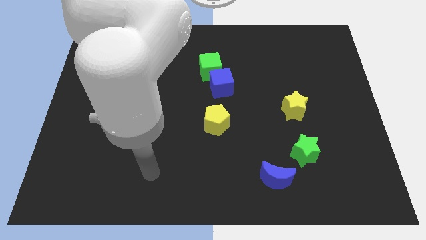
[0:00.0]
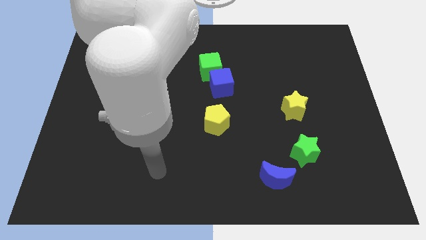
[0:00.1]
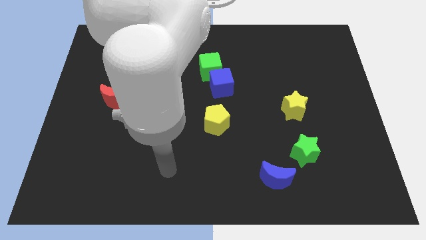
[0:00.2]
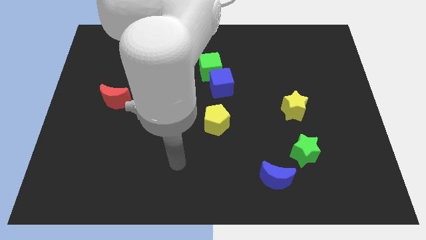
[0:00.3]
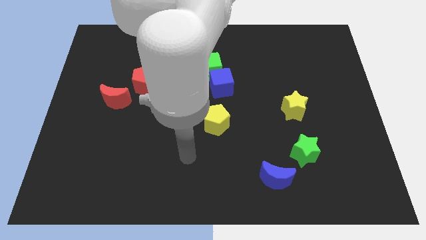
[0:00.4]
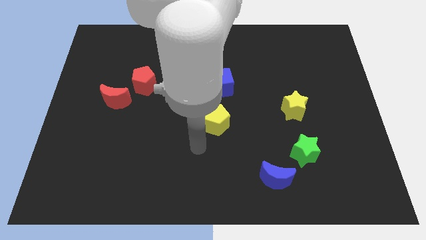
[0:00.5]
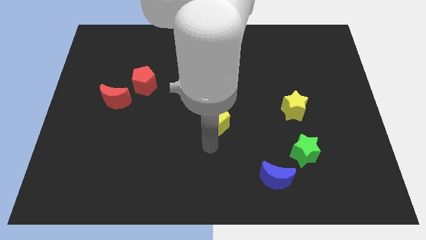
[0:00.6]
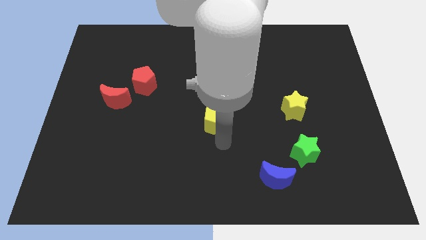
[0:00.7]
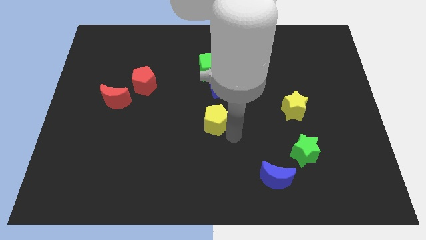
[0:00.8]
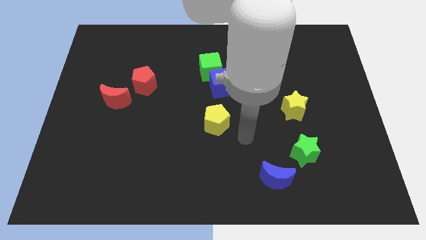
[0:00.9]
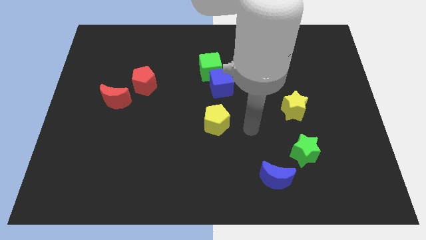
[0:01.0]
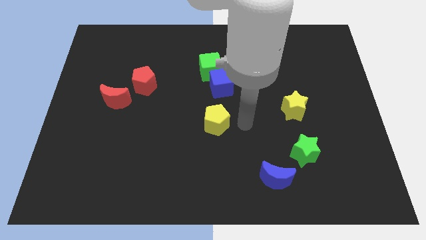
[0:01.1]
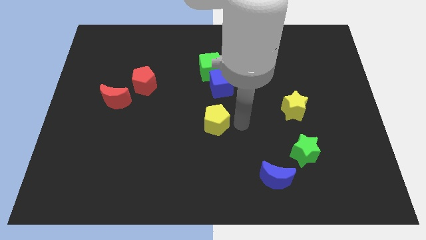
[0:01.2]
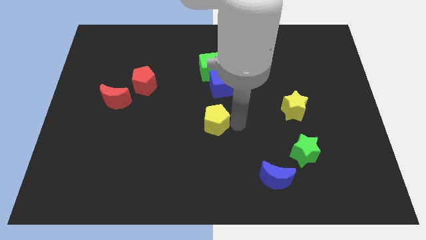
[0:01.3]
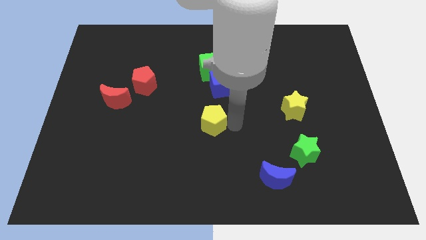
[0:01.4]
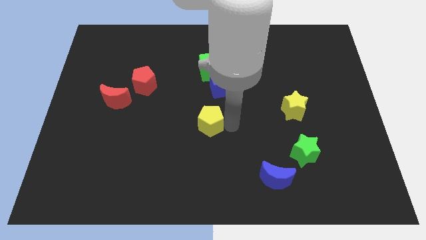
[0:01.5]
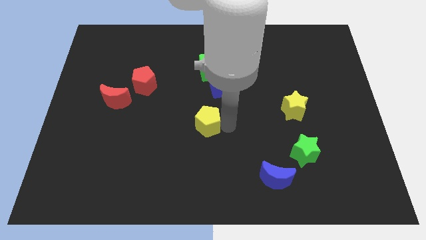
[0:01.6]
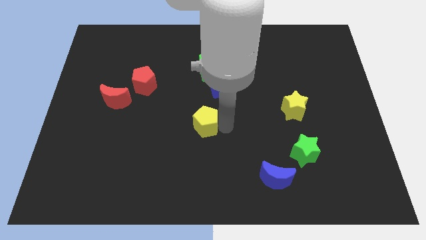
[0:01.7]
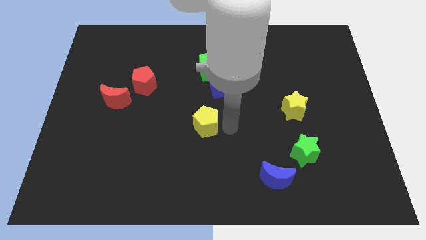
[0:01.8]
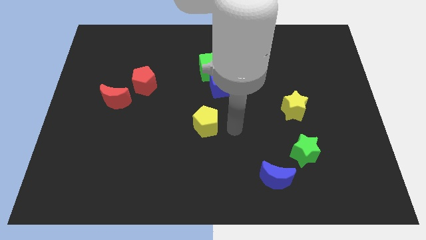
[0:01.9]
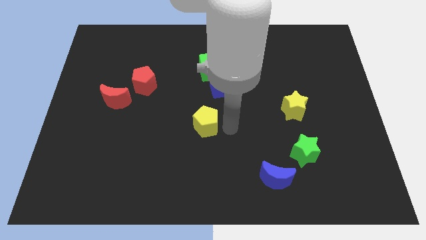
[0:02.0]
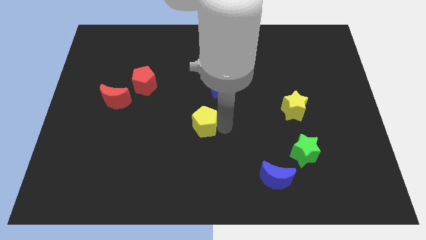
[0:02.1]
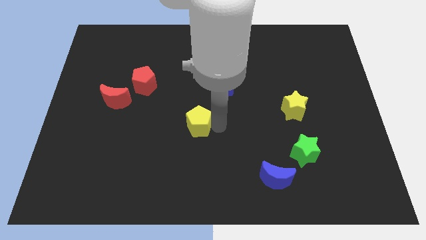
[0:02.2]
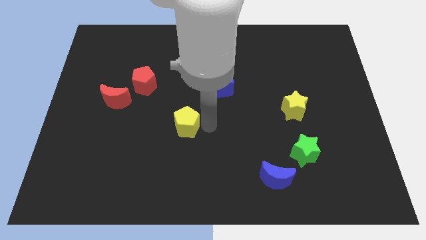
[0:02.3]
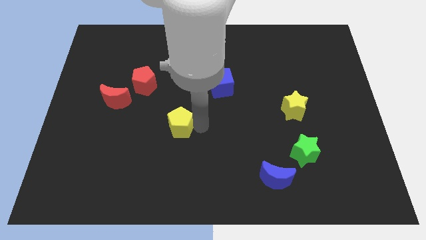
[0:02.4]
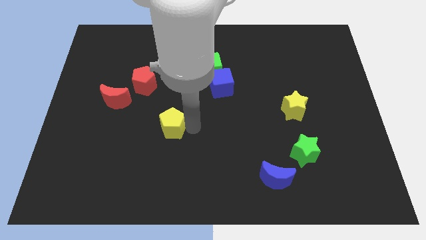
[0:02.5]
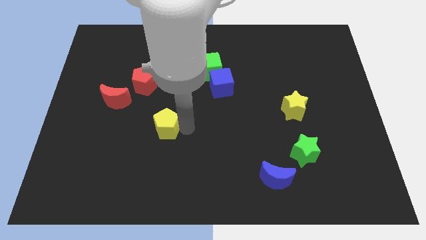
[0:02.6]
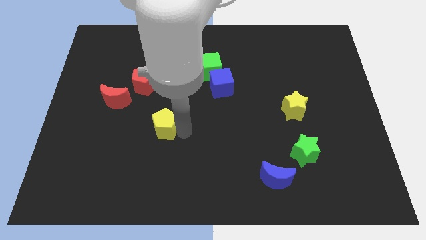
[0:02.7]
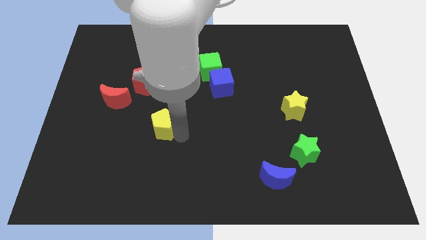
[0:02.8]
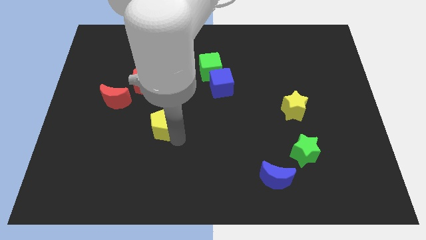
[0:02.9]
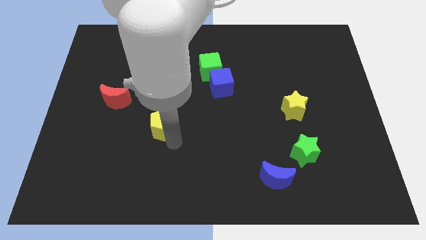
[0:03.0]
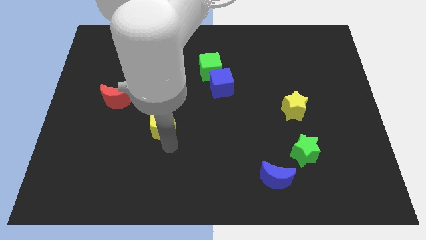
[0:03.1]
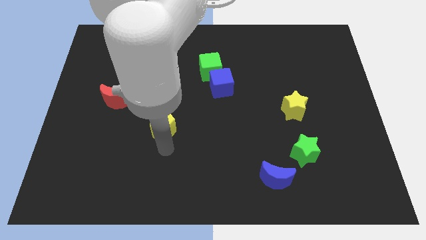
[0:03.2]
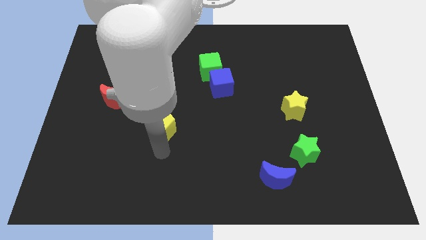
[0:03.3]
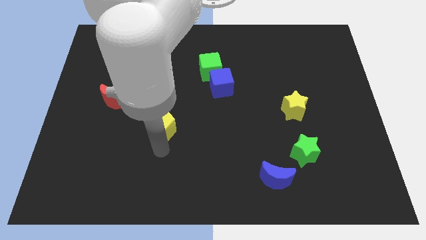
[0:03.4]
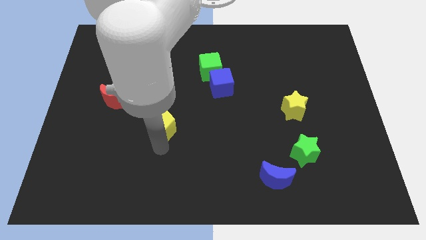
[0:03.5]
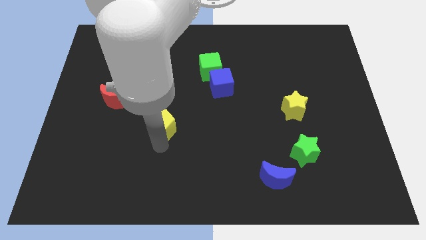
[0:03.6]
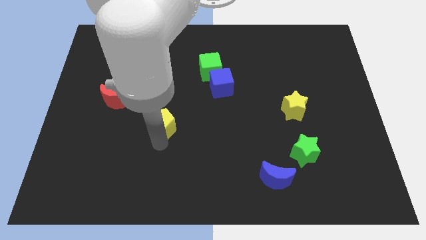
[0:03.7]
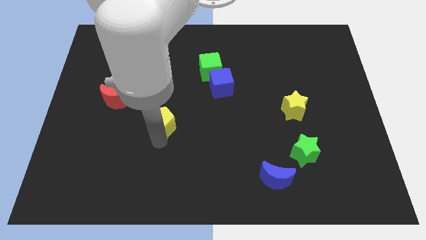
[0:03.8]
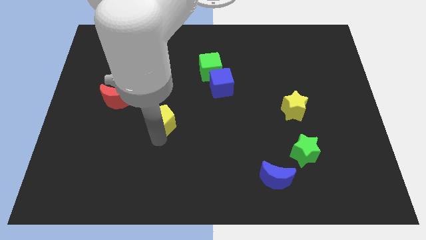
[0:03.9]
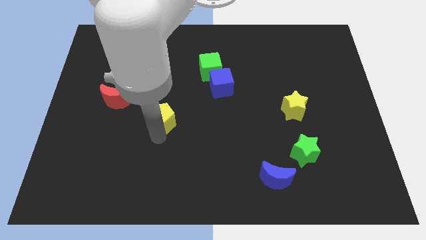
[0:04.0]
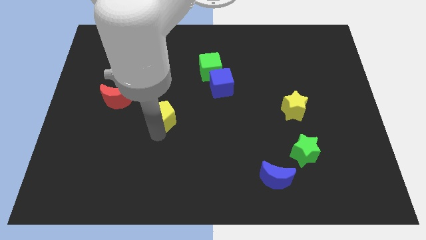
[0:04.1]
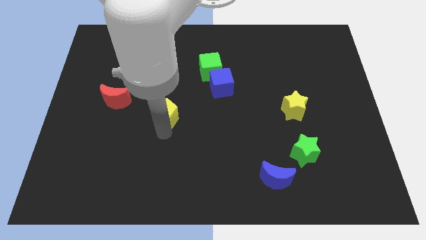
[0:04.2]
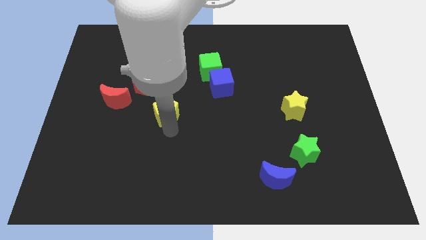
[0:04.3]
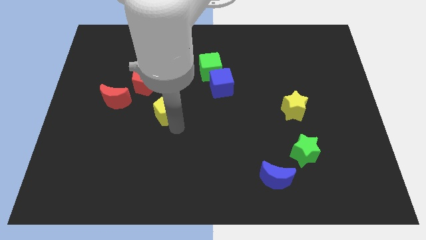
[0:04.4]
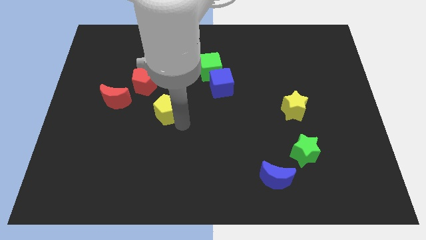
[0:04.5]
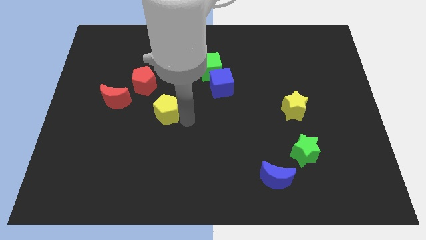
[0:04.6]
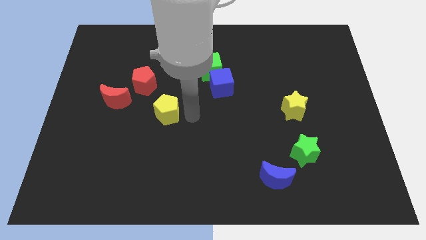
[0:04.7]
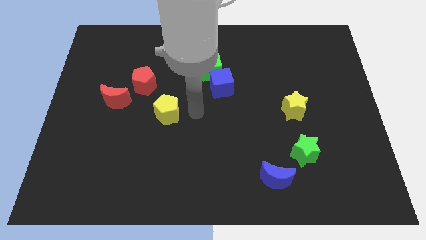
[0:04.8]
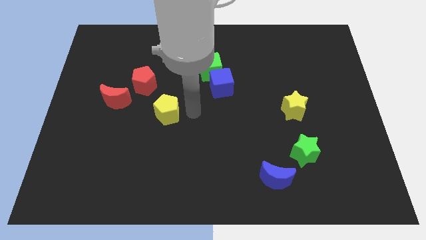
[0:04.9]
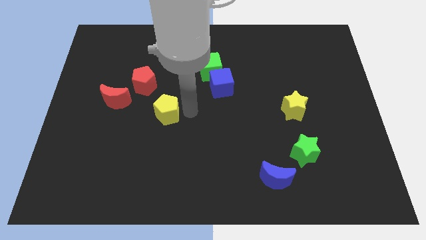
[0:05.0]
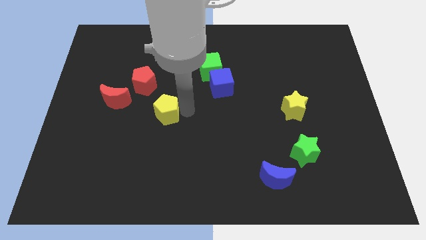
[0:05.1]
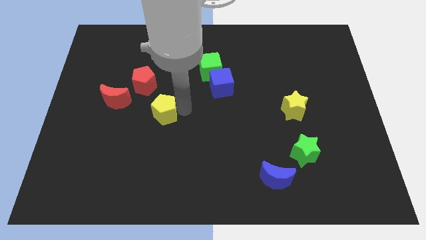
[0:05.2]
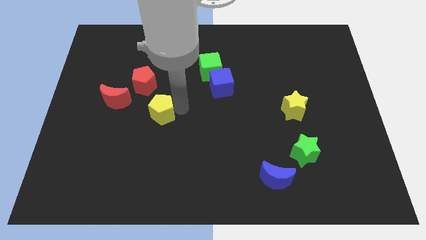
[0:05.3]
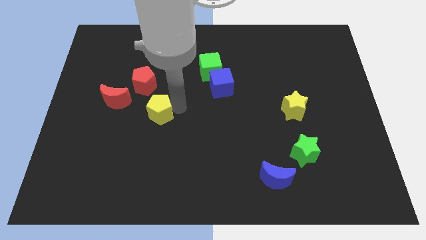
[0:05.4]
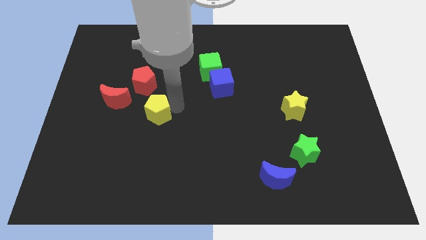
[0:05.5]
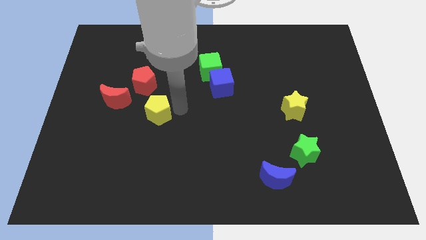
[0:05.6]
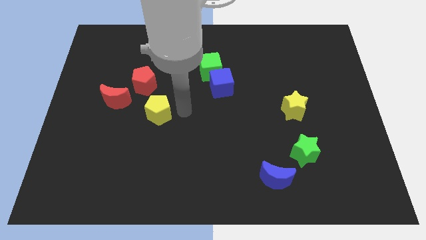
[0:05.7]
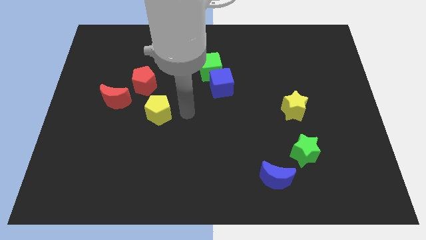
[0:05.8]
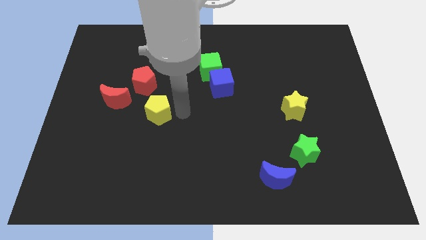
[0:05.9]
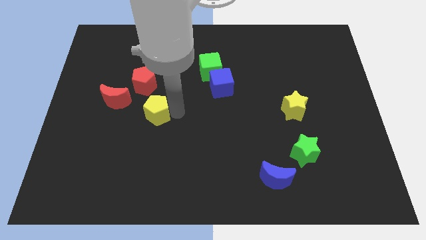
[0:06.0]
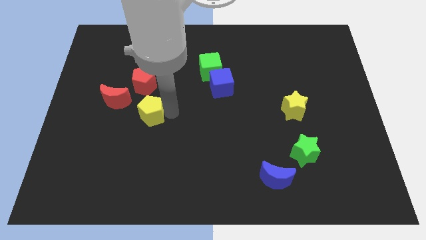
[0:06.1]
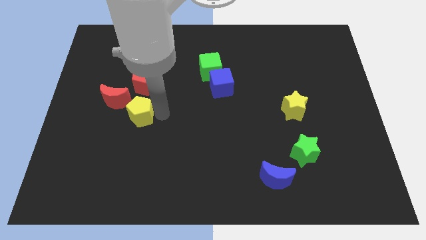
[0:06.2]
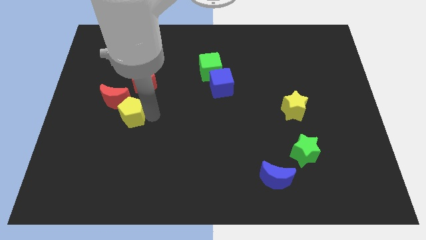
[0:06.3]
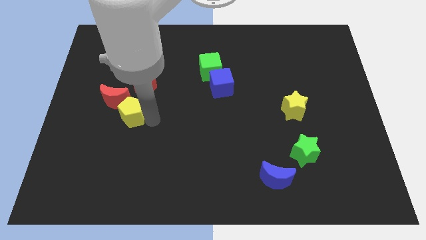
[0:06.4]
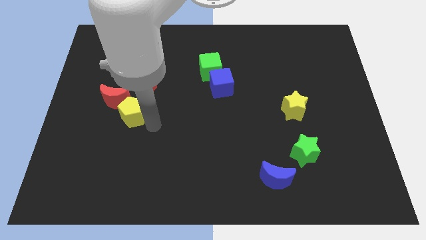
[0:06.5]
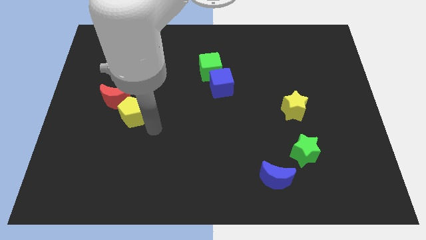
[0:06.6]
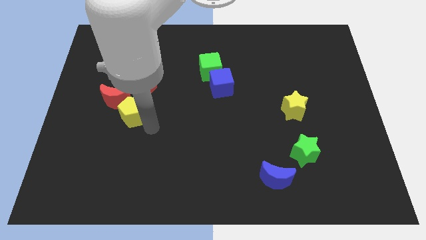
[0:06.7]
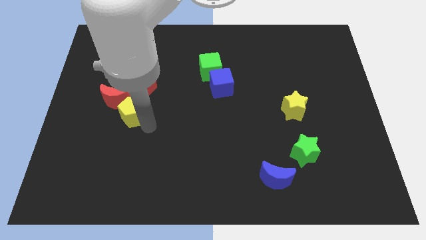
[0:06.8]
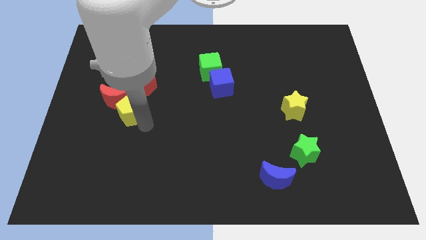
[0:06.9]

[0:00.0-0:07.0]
push the yellow pentagon close to the red moon

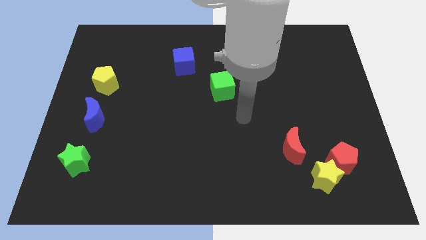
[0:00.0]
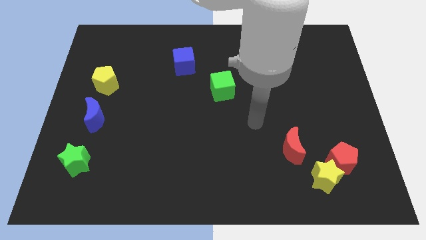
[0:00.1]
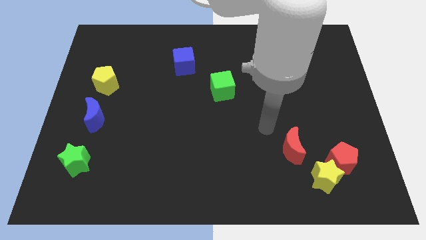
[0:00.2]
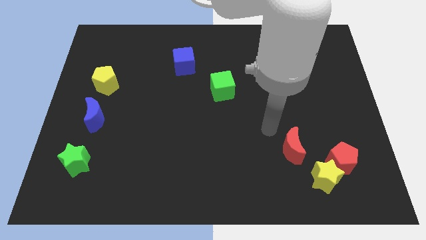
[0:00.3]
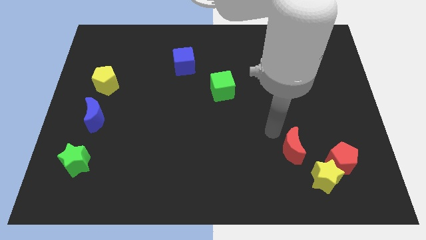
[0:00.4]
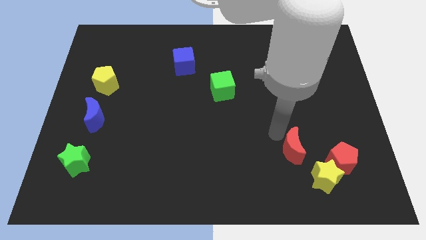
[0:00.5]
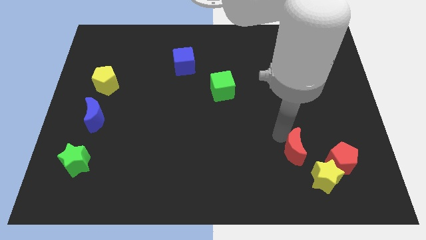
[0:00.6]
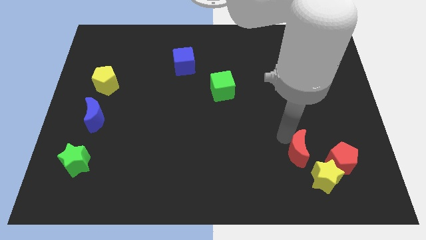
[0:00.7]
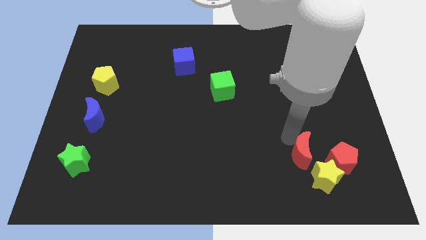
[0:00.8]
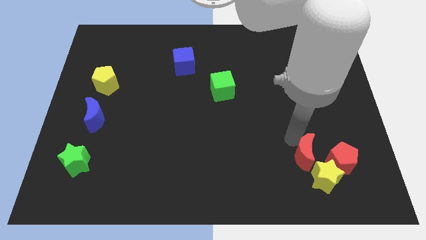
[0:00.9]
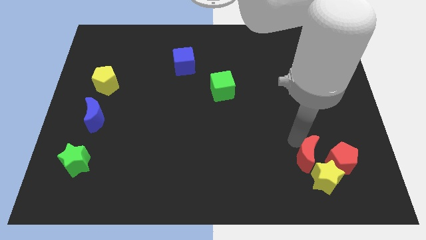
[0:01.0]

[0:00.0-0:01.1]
push the red moon next to the yellow star
